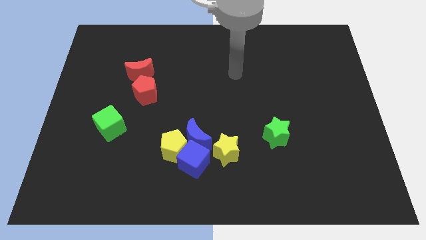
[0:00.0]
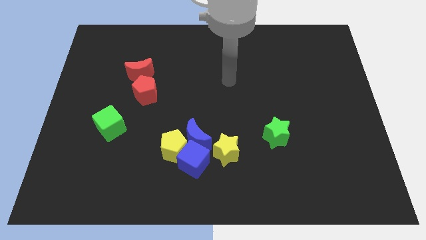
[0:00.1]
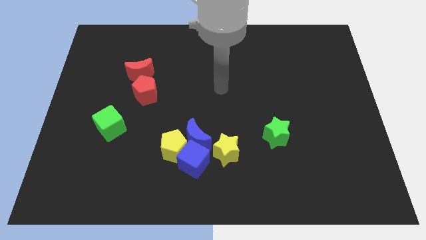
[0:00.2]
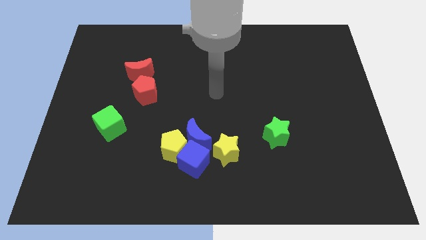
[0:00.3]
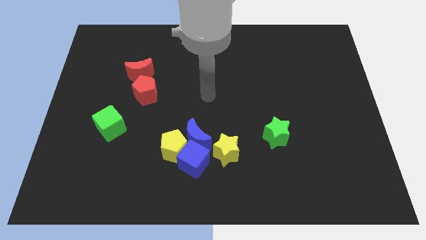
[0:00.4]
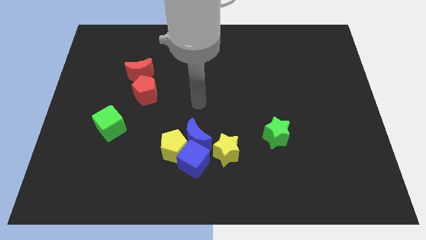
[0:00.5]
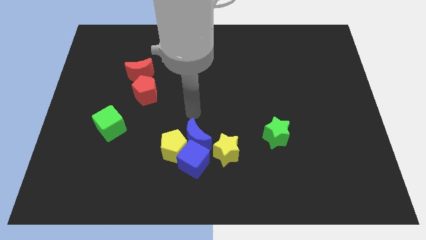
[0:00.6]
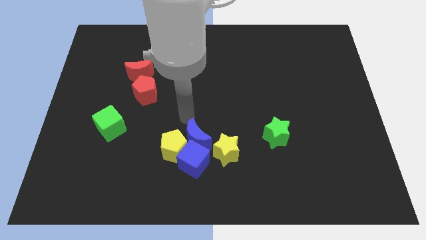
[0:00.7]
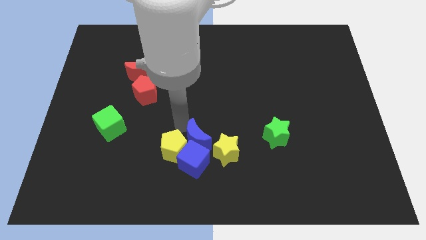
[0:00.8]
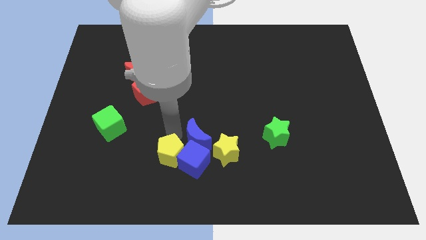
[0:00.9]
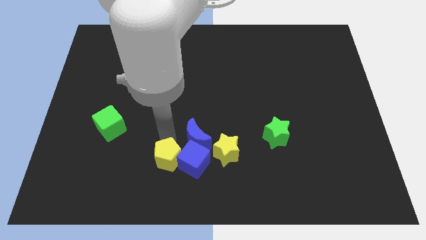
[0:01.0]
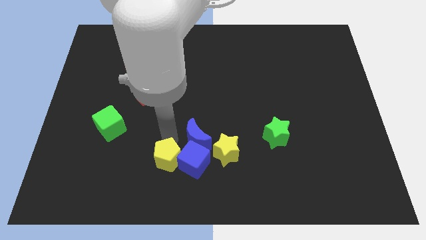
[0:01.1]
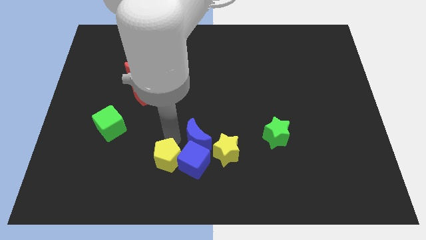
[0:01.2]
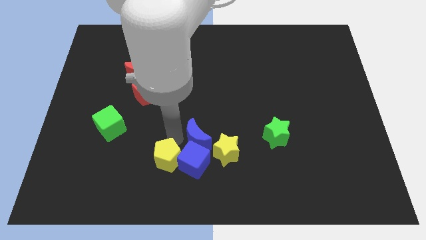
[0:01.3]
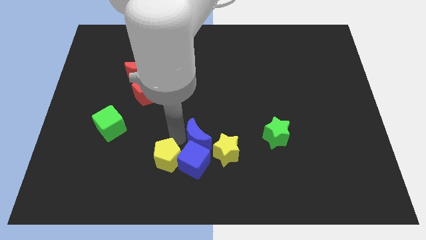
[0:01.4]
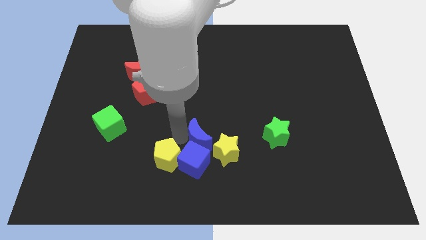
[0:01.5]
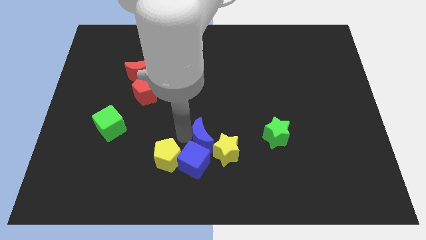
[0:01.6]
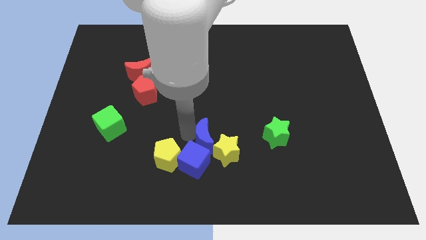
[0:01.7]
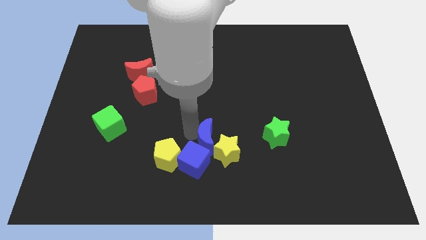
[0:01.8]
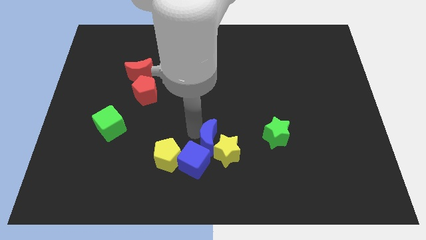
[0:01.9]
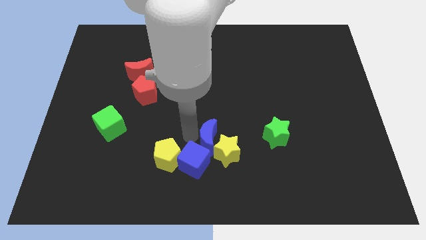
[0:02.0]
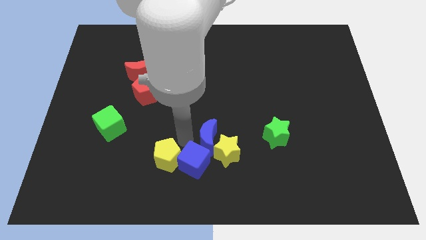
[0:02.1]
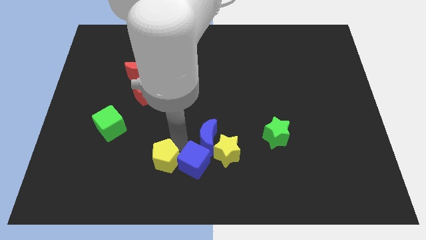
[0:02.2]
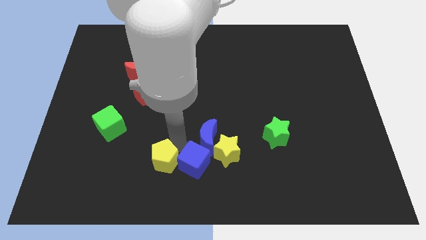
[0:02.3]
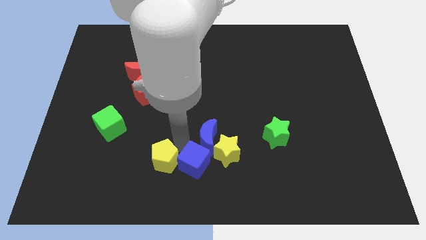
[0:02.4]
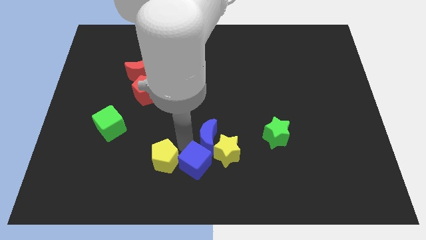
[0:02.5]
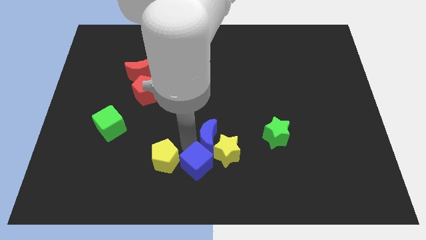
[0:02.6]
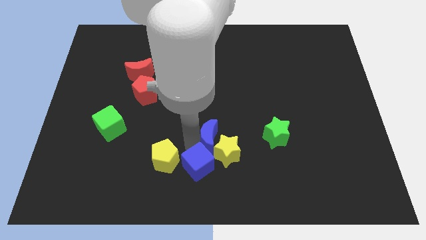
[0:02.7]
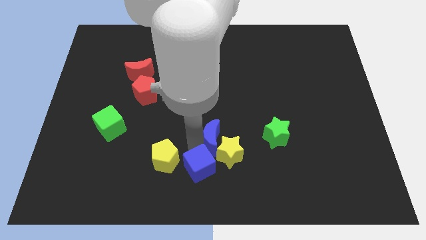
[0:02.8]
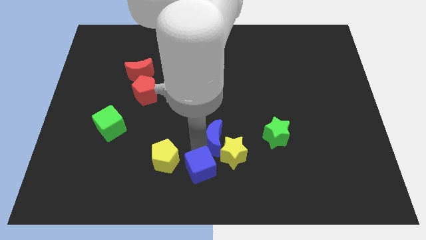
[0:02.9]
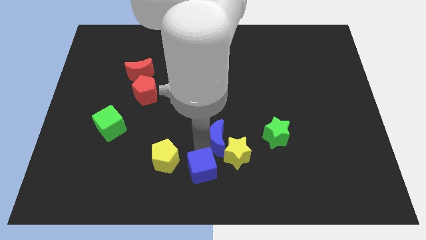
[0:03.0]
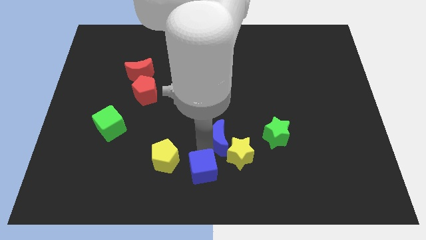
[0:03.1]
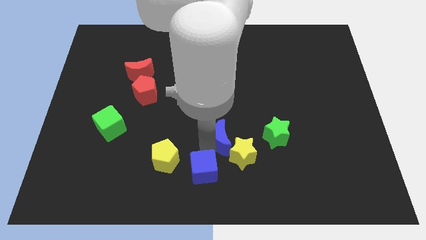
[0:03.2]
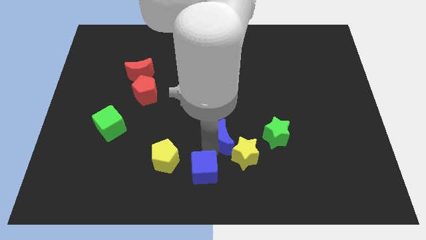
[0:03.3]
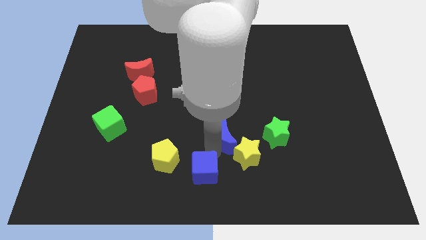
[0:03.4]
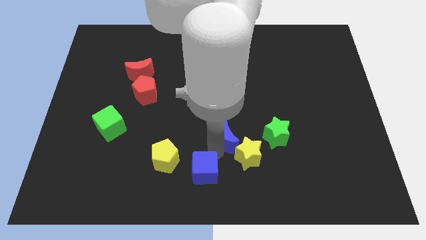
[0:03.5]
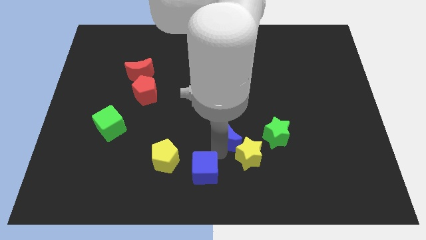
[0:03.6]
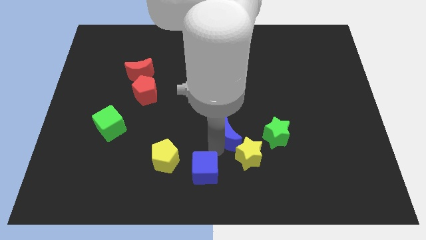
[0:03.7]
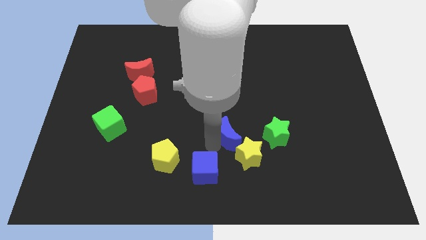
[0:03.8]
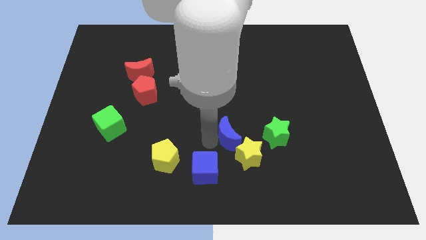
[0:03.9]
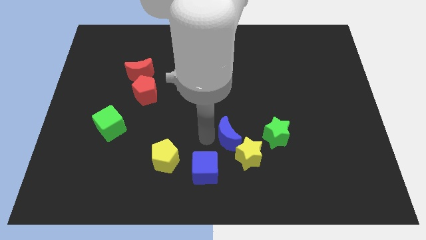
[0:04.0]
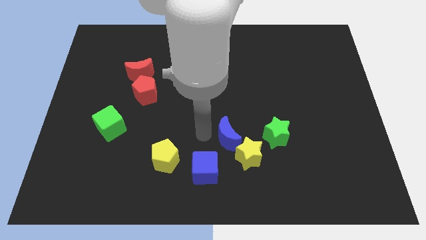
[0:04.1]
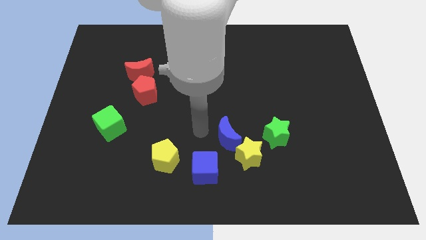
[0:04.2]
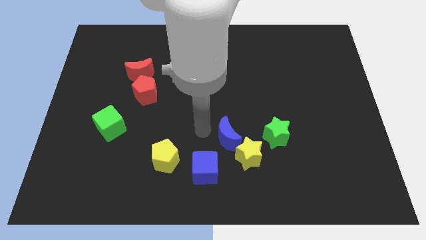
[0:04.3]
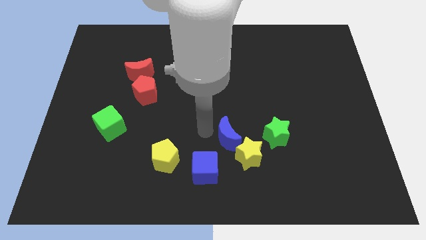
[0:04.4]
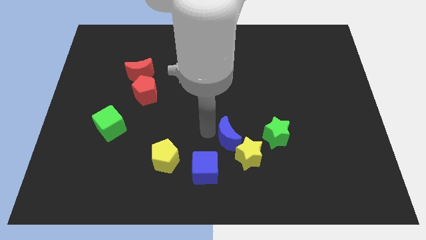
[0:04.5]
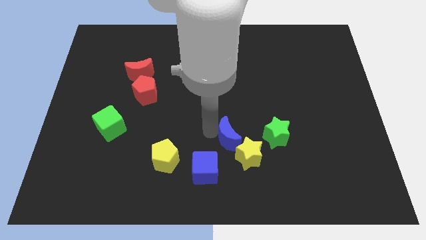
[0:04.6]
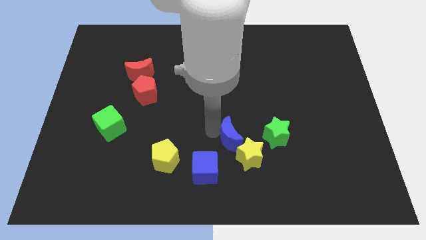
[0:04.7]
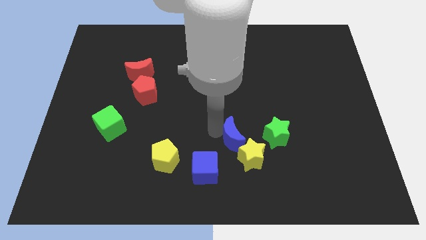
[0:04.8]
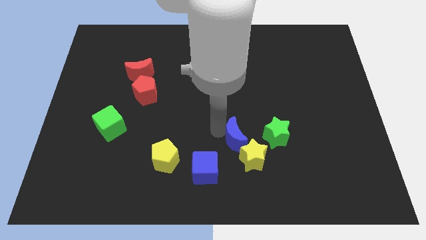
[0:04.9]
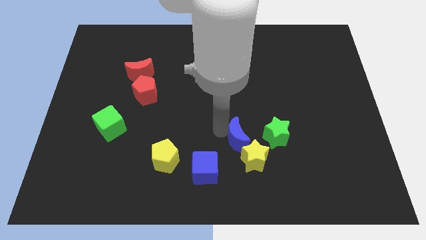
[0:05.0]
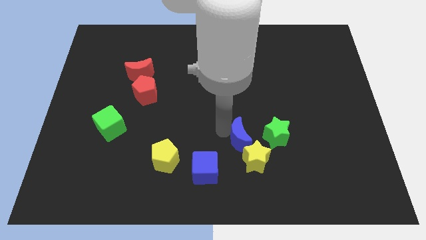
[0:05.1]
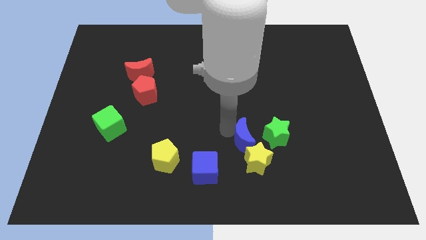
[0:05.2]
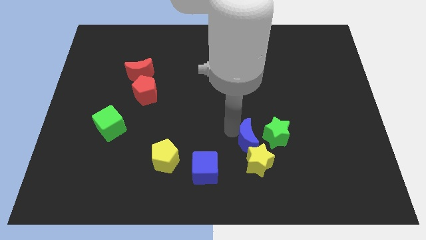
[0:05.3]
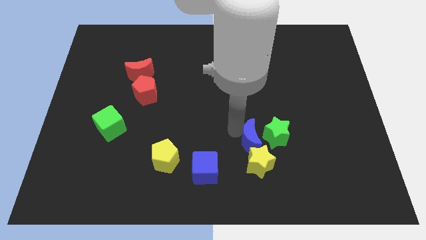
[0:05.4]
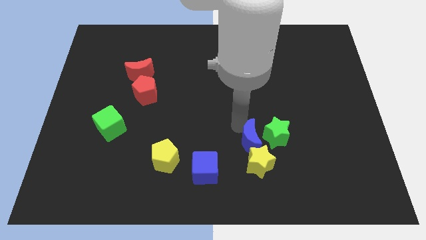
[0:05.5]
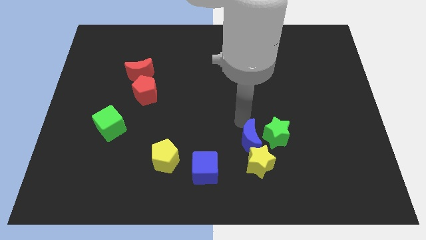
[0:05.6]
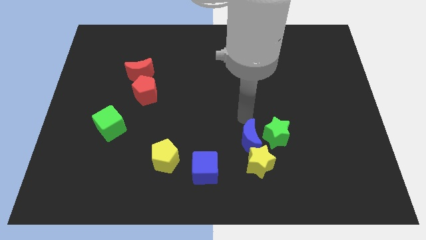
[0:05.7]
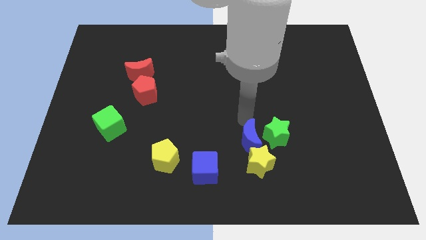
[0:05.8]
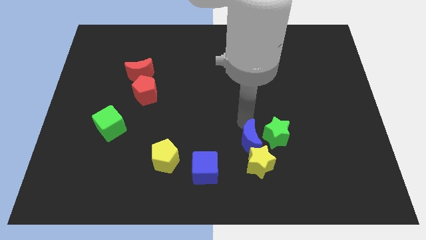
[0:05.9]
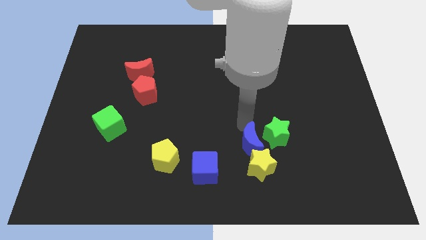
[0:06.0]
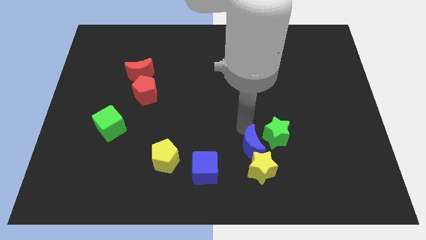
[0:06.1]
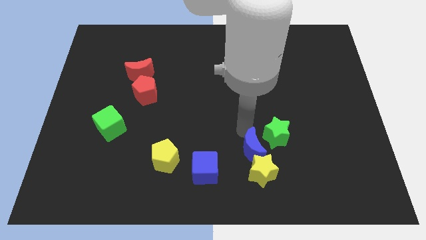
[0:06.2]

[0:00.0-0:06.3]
push the blue moon just right of the blue cube
